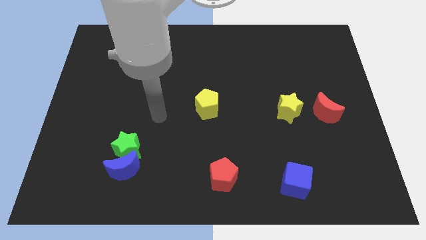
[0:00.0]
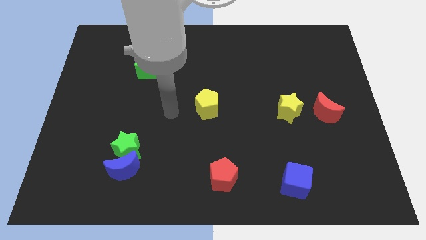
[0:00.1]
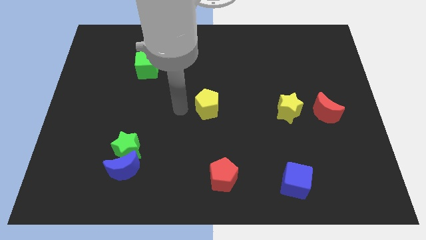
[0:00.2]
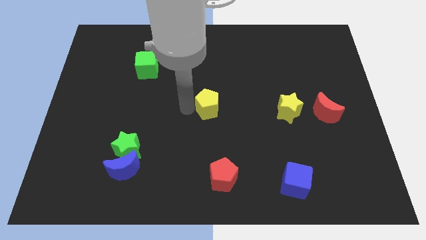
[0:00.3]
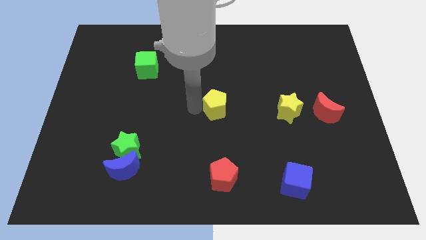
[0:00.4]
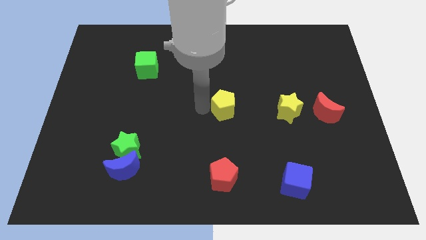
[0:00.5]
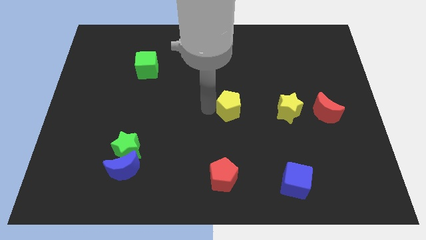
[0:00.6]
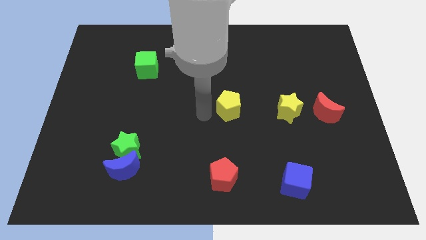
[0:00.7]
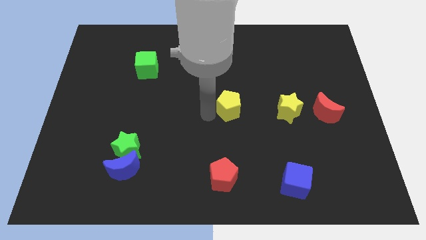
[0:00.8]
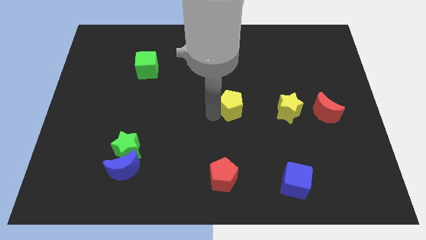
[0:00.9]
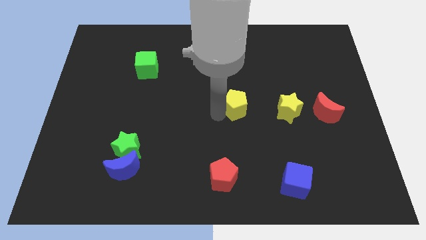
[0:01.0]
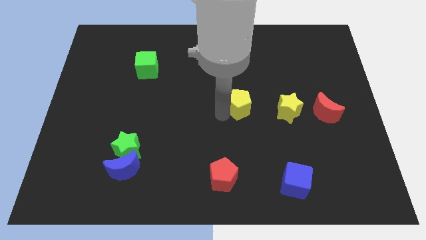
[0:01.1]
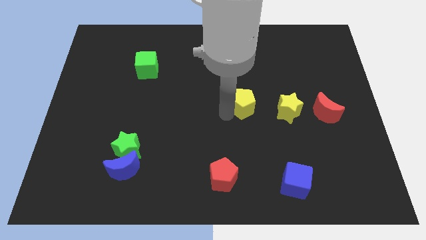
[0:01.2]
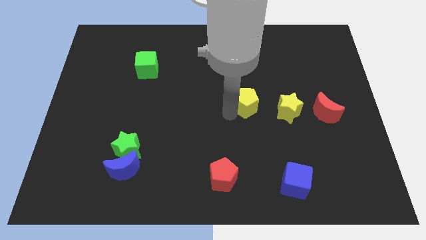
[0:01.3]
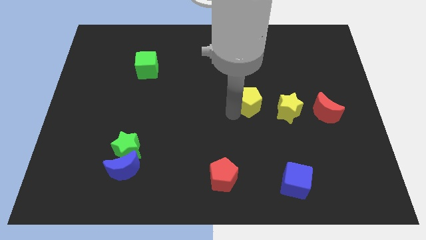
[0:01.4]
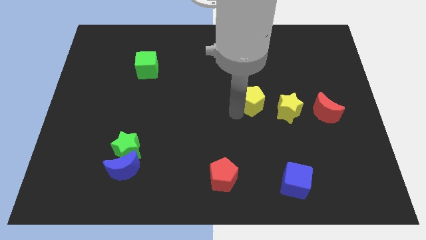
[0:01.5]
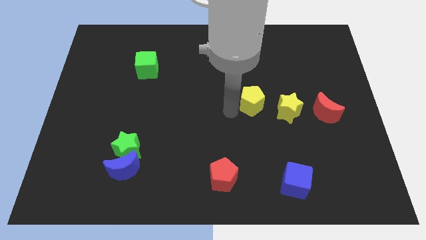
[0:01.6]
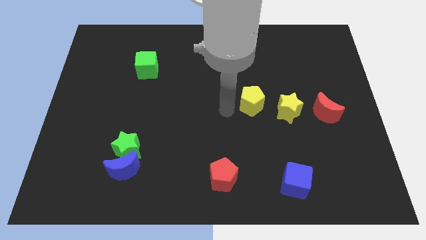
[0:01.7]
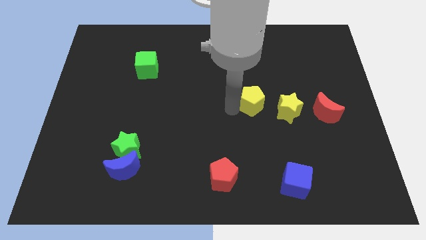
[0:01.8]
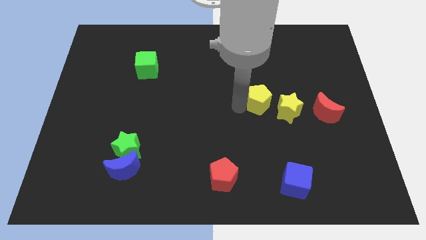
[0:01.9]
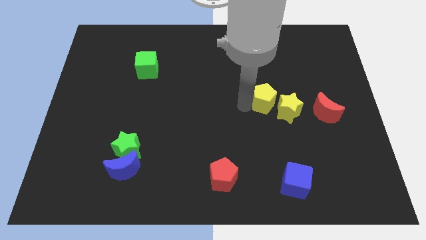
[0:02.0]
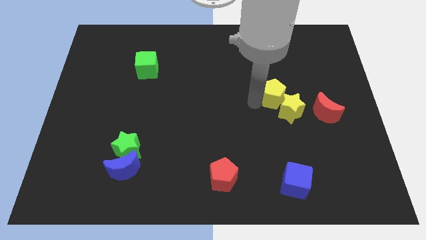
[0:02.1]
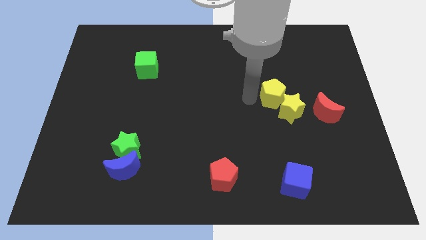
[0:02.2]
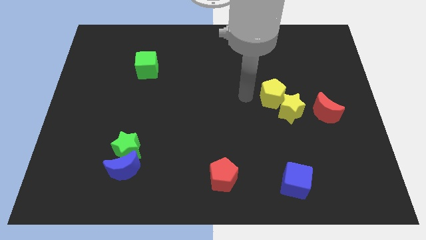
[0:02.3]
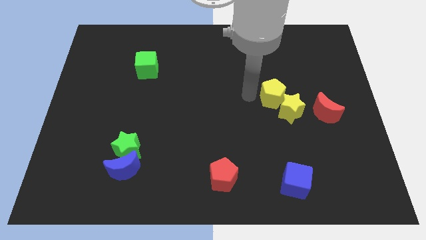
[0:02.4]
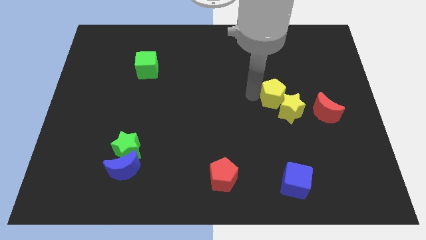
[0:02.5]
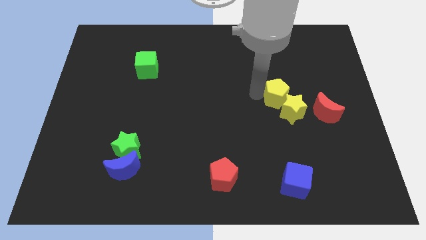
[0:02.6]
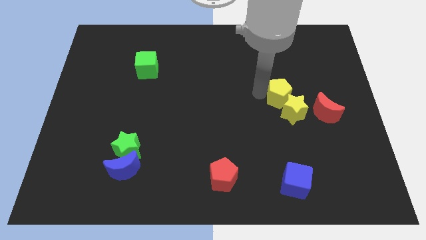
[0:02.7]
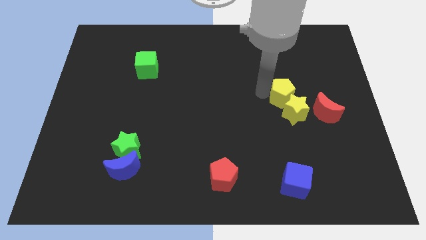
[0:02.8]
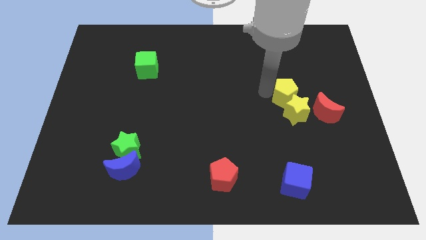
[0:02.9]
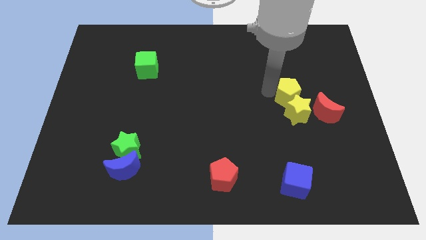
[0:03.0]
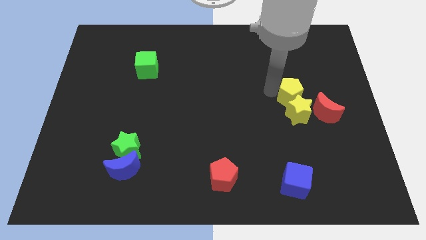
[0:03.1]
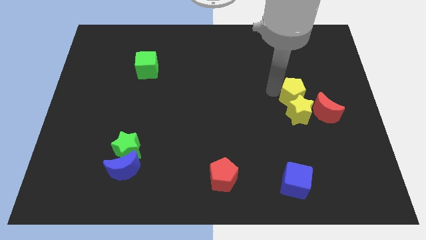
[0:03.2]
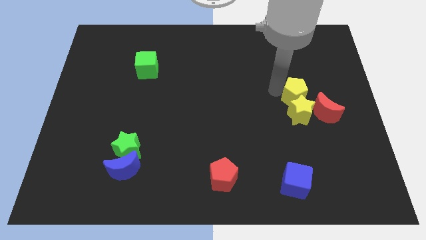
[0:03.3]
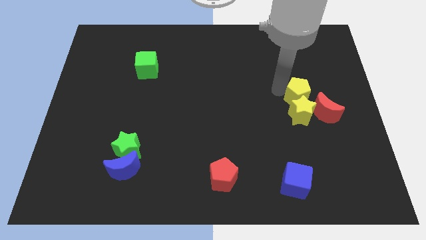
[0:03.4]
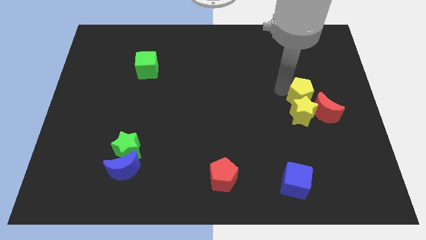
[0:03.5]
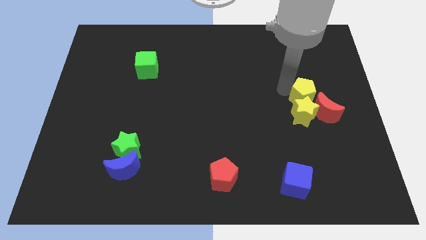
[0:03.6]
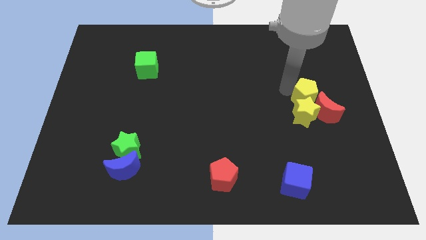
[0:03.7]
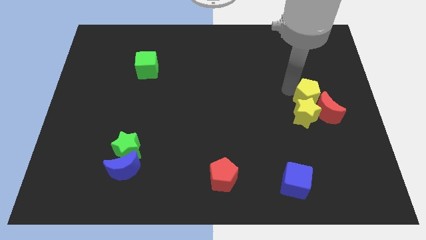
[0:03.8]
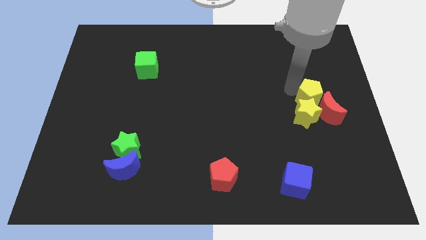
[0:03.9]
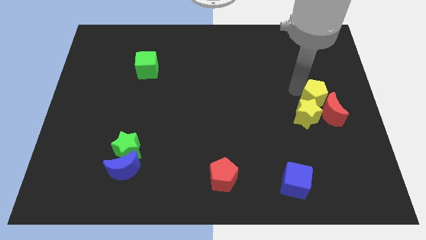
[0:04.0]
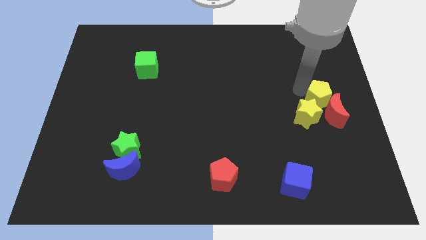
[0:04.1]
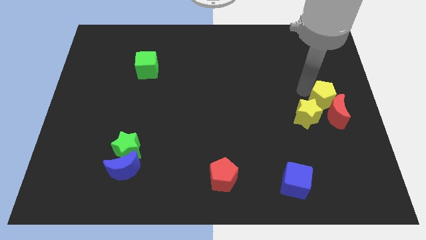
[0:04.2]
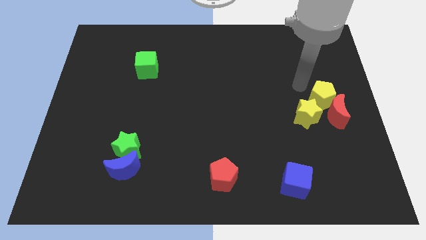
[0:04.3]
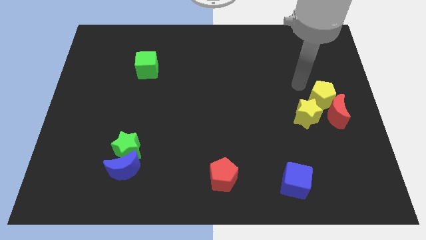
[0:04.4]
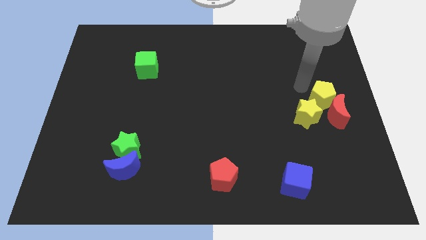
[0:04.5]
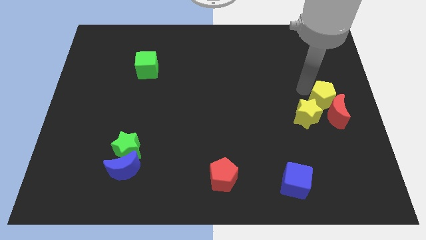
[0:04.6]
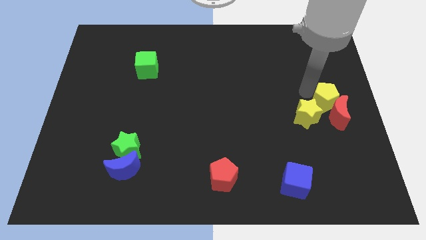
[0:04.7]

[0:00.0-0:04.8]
push the yellow pentagon right of the yellow star

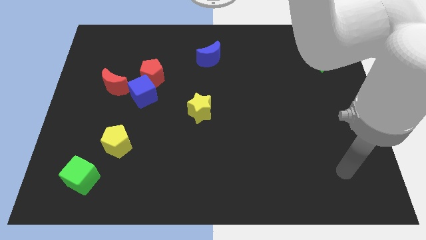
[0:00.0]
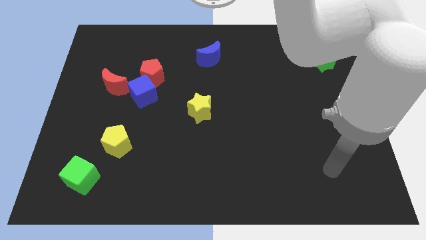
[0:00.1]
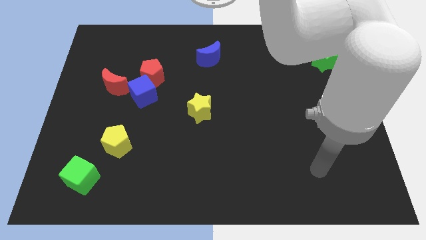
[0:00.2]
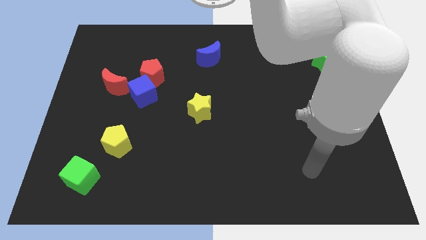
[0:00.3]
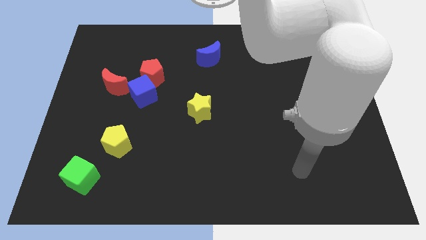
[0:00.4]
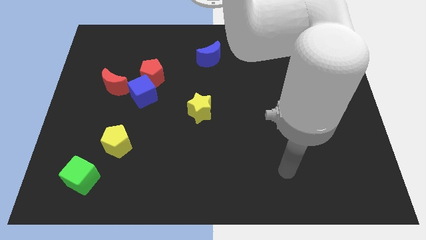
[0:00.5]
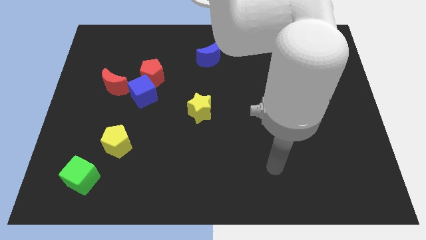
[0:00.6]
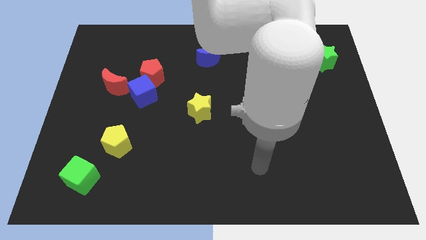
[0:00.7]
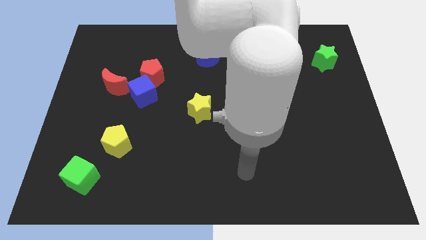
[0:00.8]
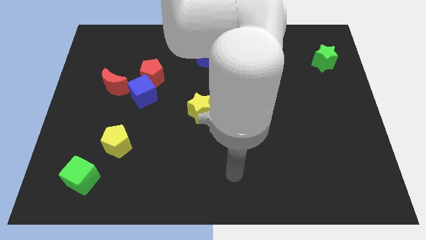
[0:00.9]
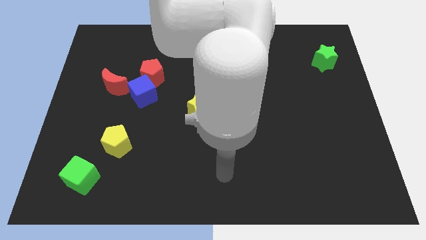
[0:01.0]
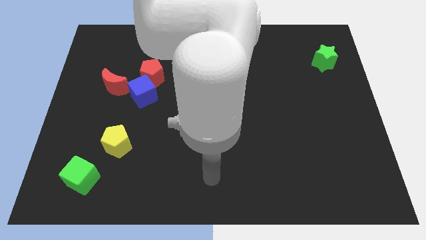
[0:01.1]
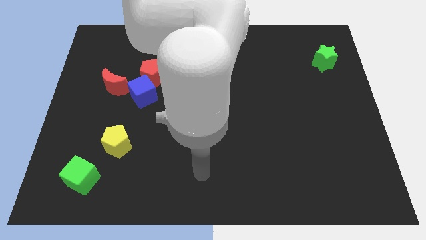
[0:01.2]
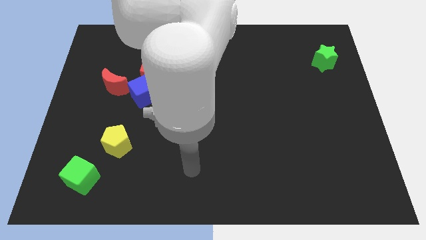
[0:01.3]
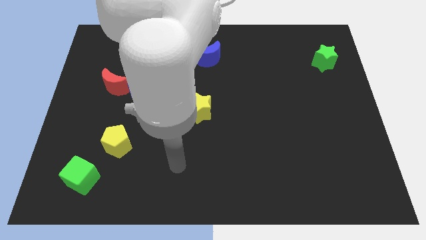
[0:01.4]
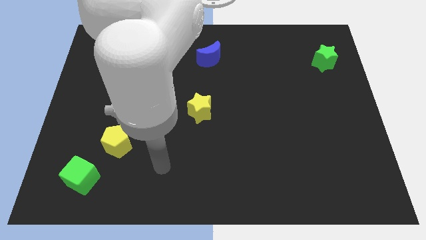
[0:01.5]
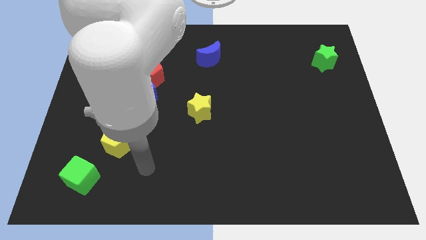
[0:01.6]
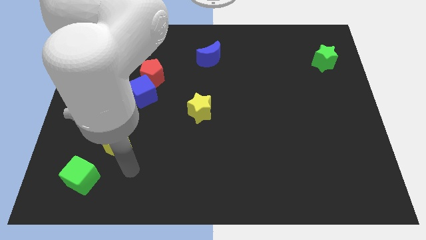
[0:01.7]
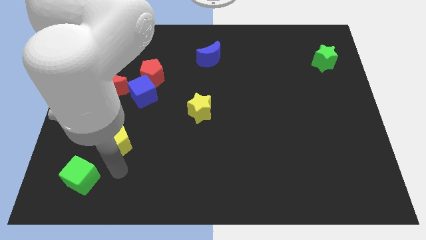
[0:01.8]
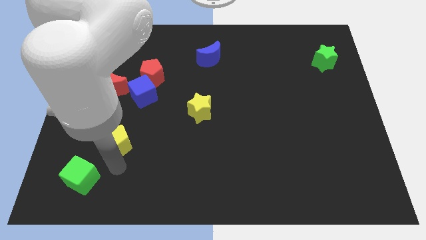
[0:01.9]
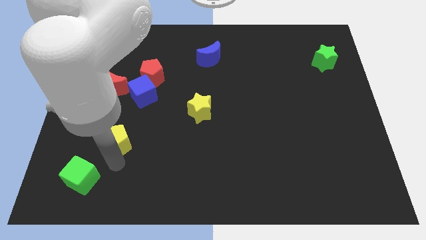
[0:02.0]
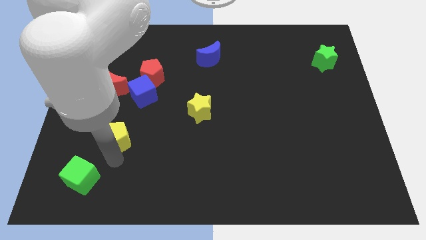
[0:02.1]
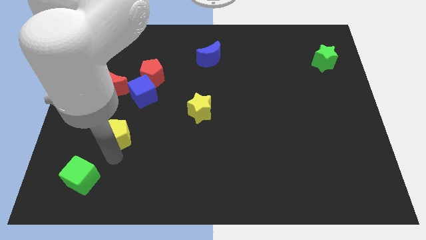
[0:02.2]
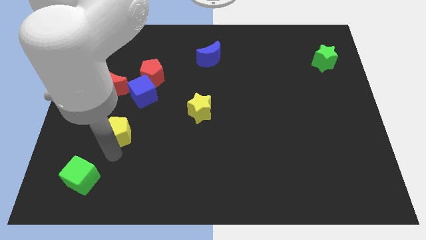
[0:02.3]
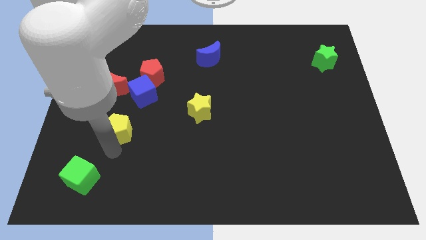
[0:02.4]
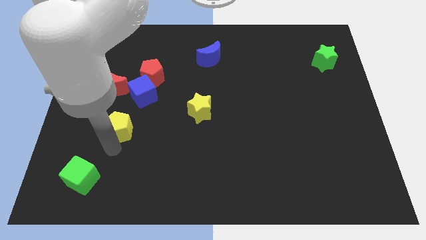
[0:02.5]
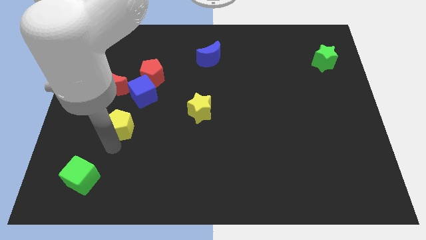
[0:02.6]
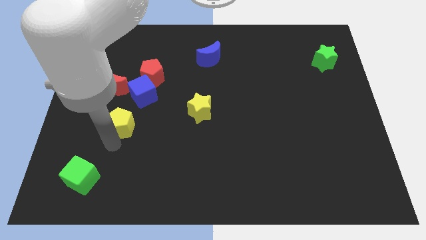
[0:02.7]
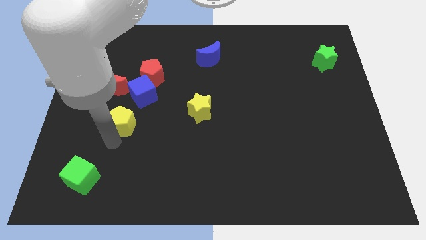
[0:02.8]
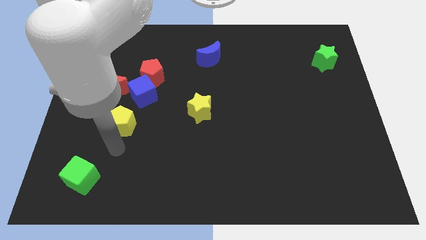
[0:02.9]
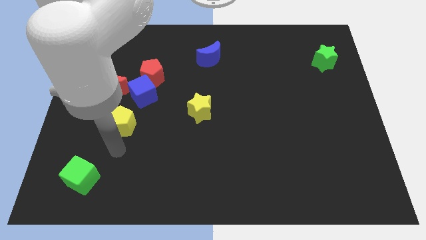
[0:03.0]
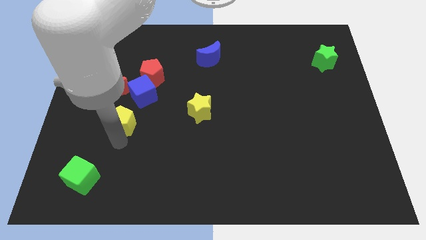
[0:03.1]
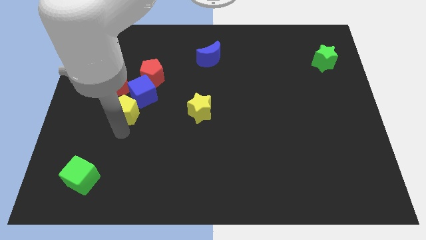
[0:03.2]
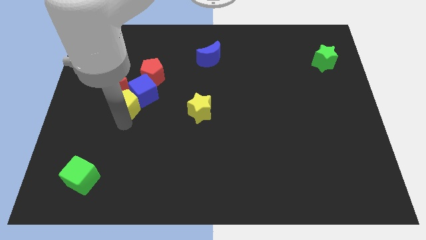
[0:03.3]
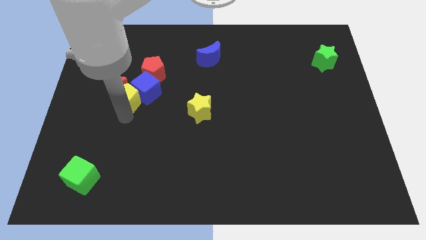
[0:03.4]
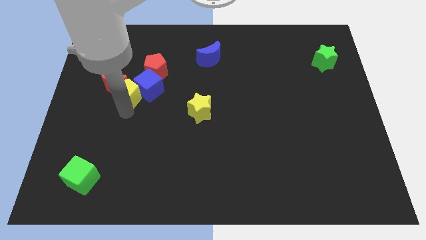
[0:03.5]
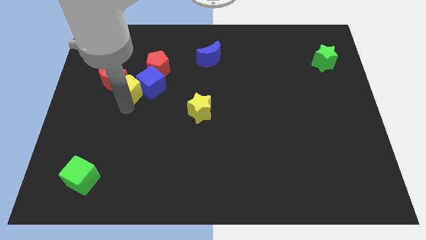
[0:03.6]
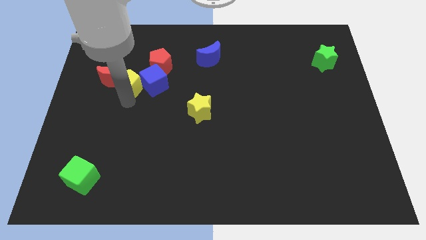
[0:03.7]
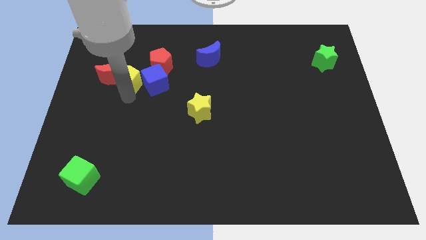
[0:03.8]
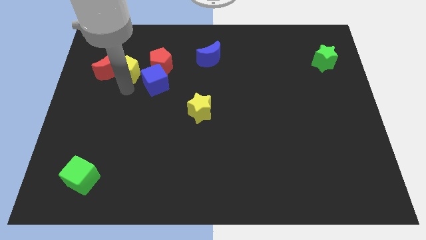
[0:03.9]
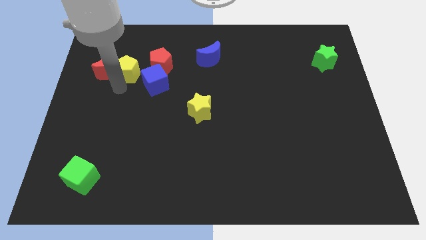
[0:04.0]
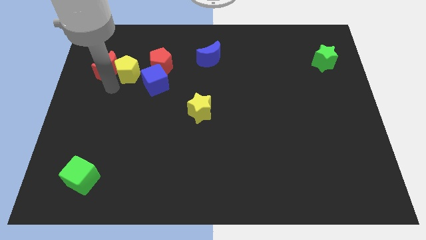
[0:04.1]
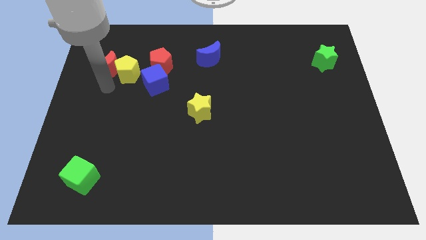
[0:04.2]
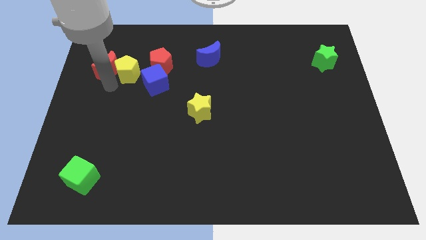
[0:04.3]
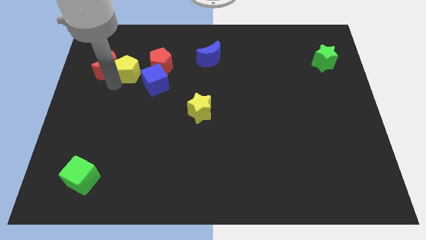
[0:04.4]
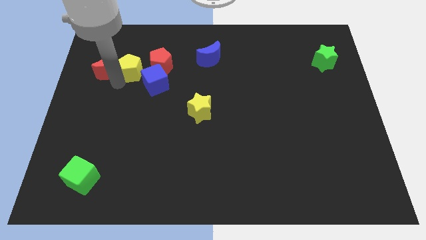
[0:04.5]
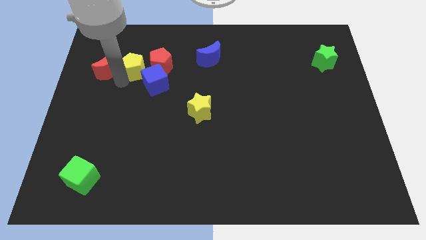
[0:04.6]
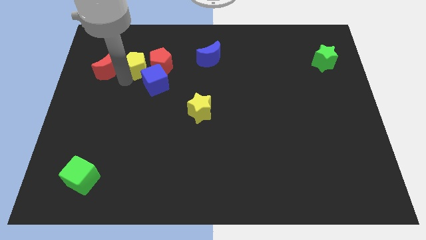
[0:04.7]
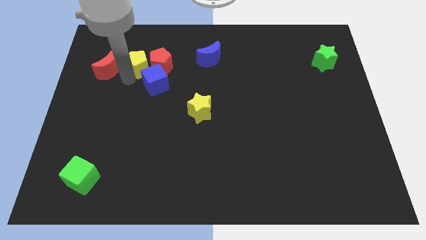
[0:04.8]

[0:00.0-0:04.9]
slide the yellow pentagon above the blue cube
